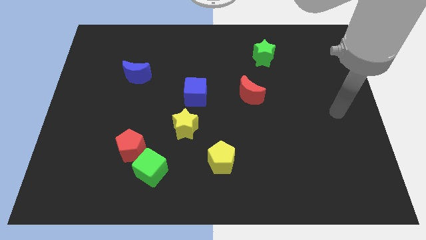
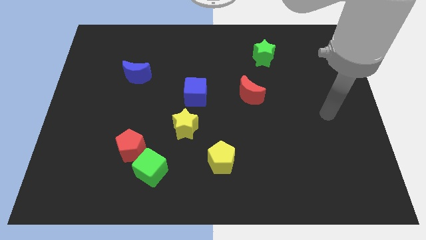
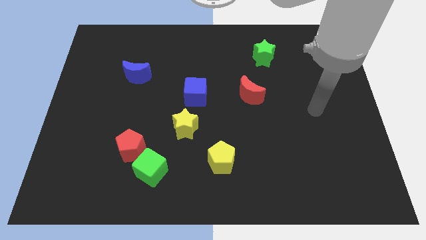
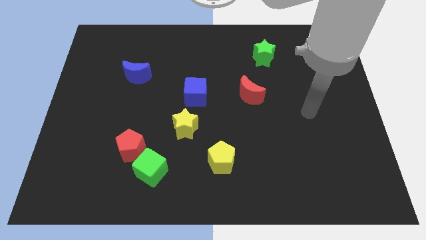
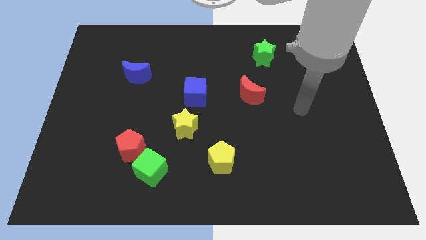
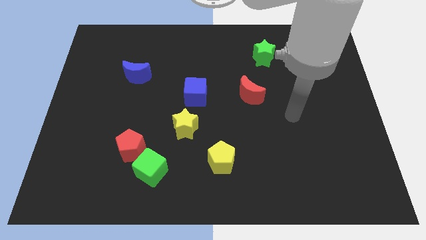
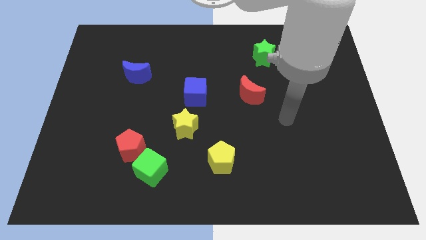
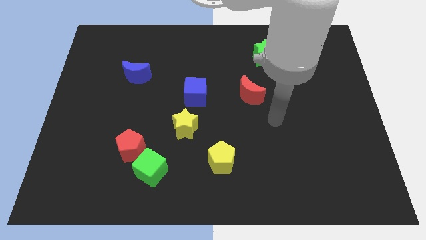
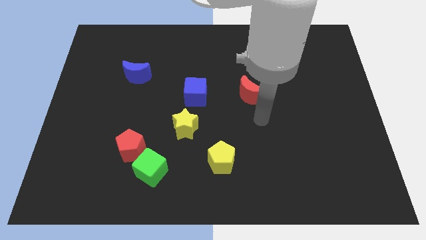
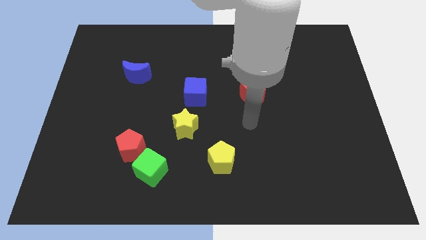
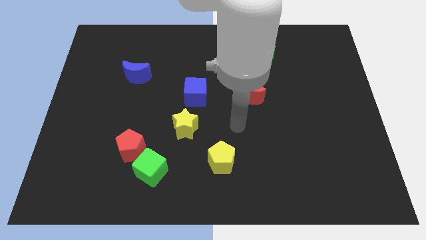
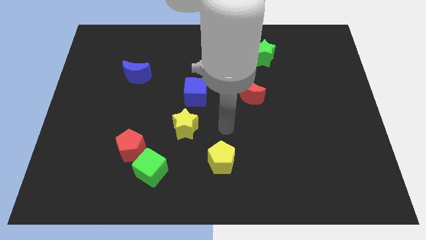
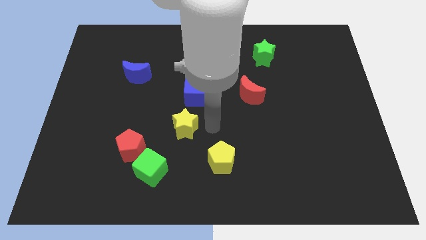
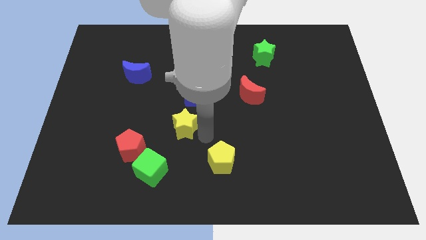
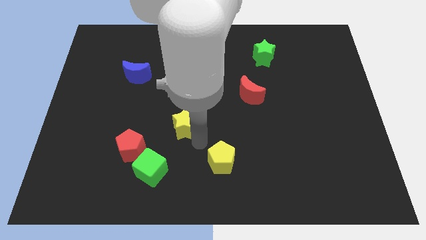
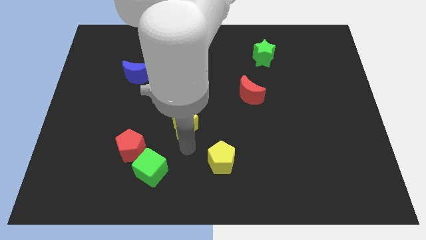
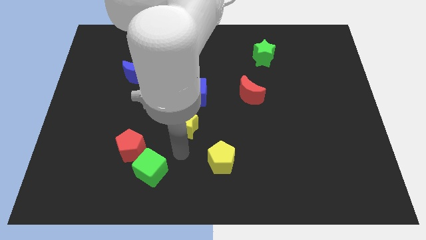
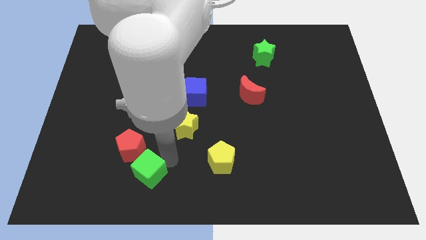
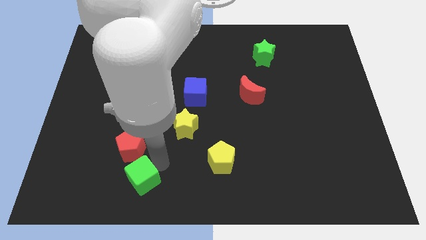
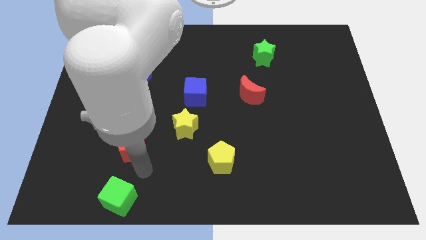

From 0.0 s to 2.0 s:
separate the red pentagon from the green cube

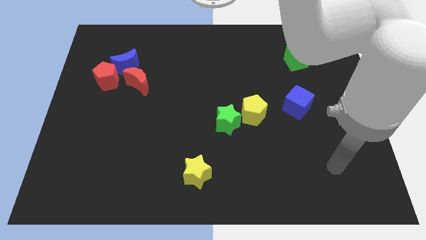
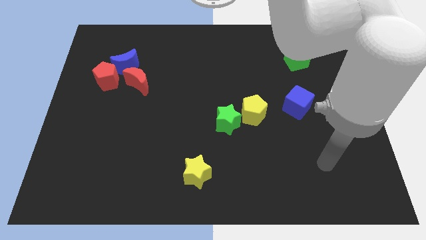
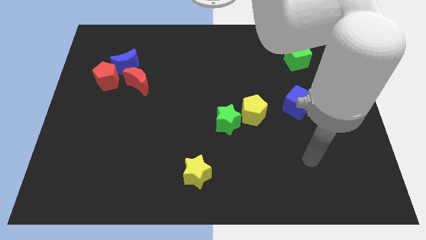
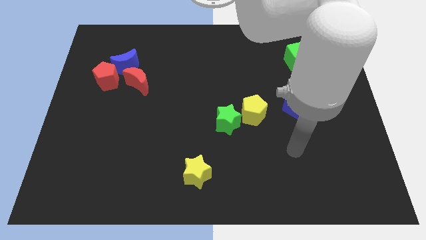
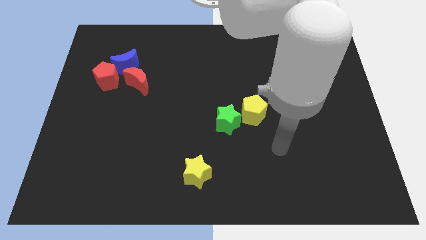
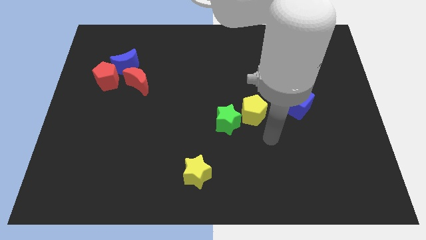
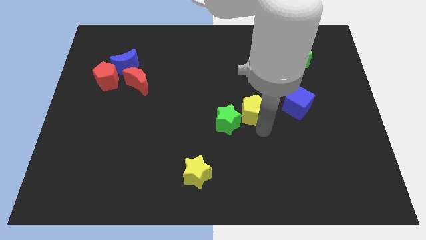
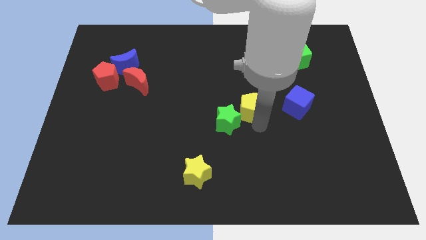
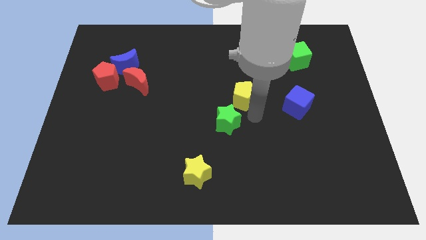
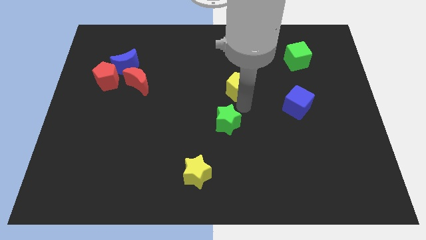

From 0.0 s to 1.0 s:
move the green star away from the yellow pentagon

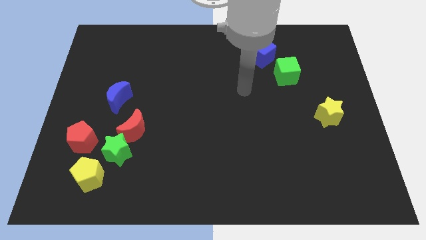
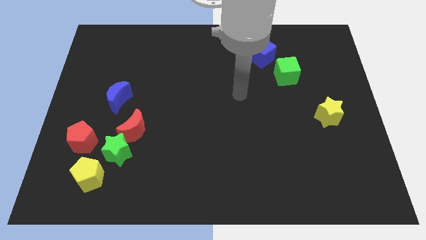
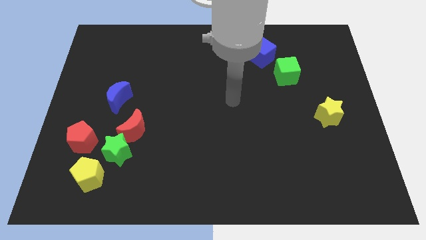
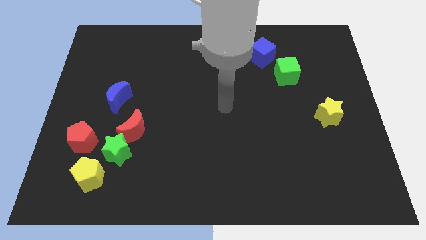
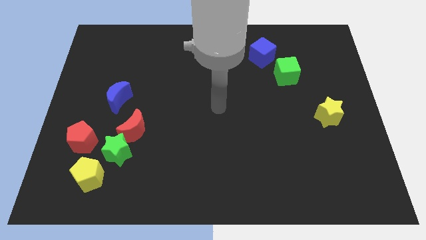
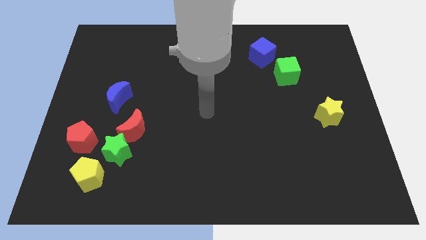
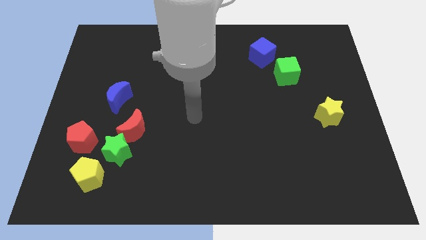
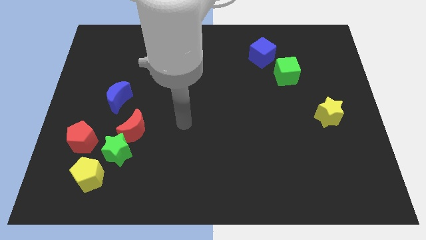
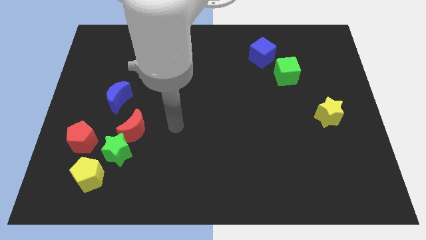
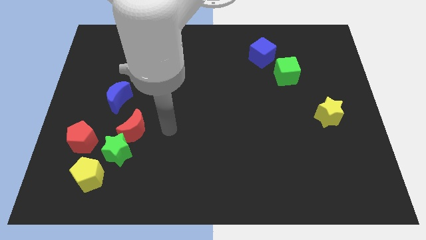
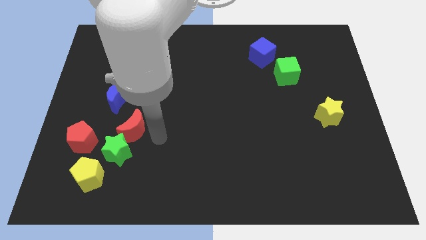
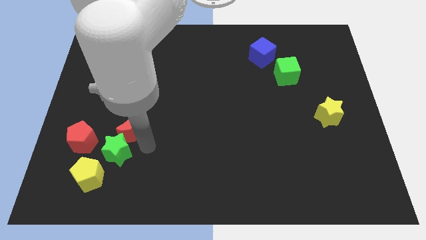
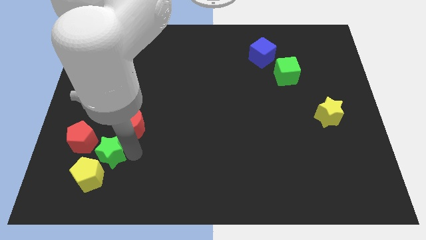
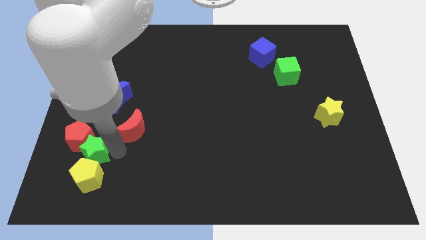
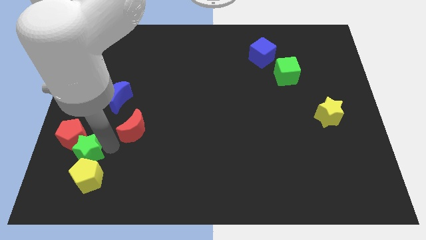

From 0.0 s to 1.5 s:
move the red moon away from the green star

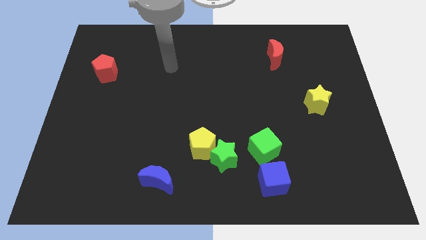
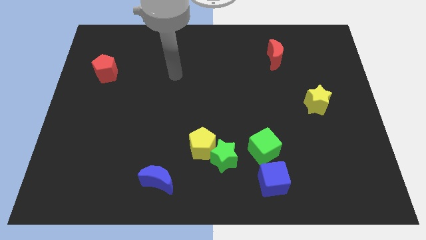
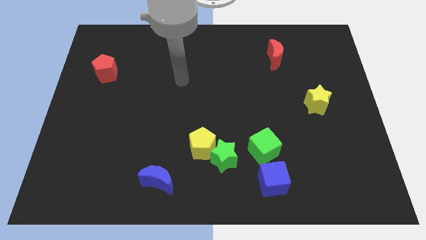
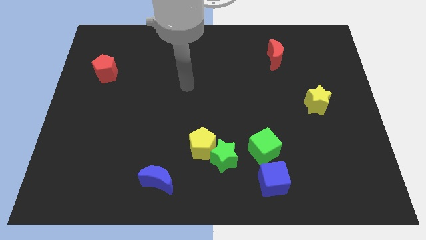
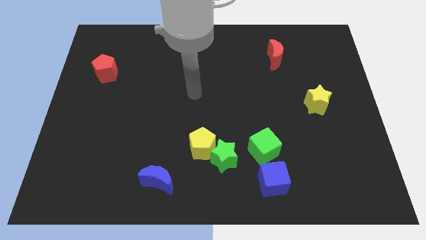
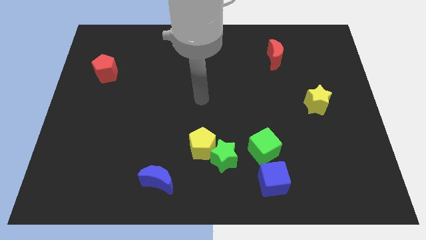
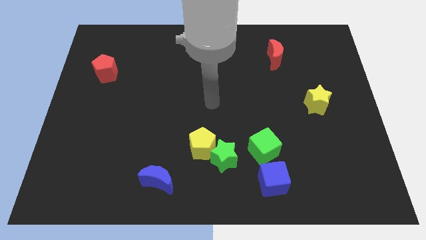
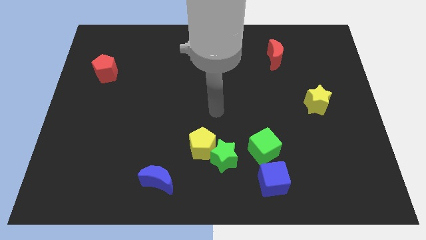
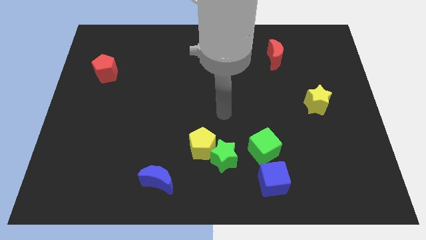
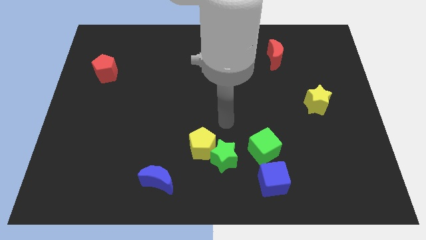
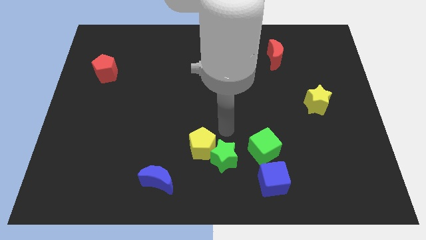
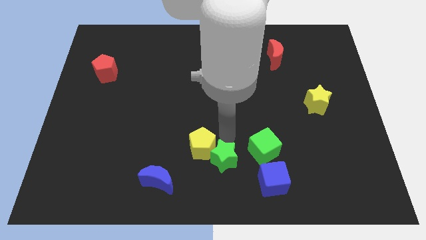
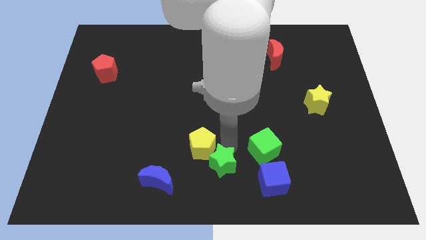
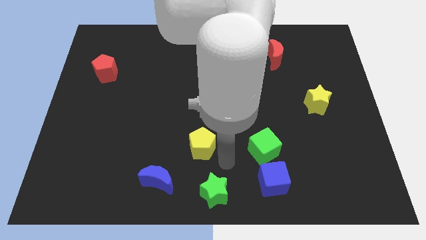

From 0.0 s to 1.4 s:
separate the yellow pentagon from the green star

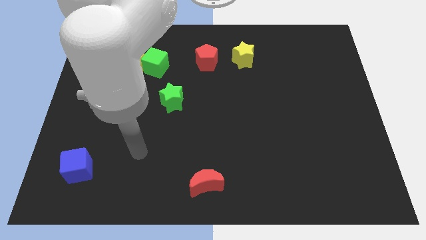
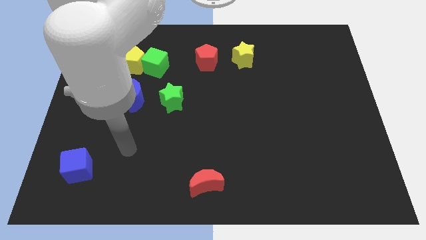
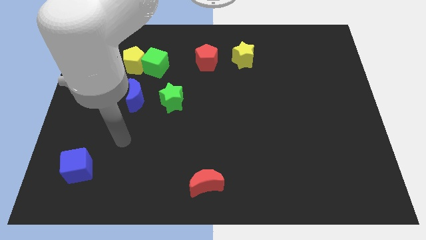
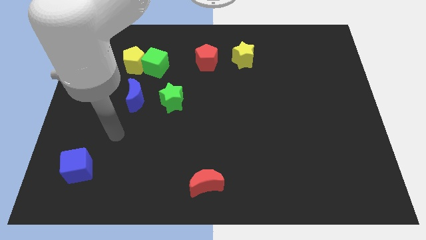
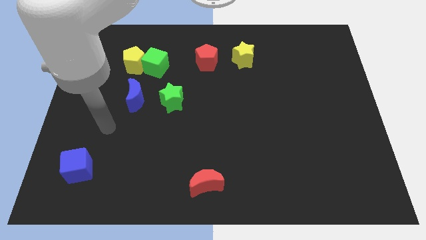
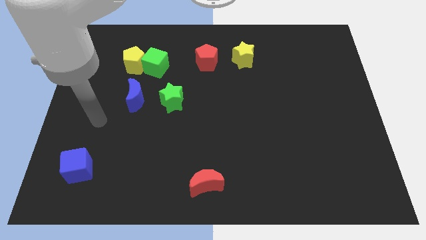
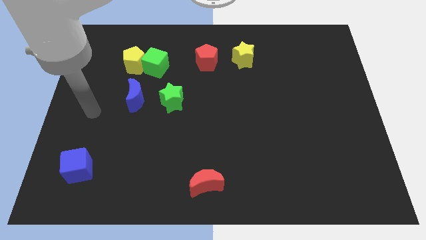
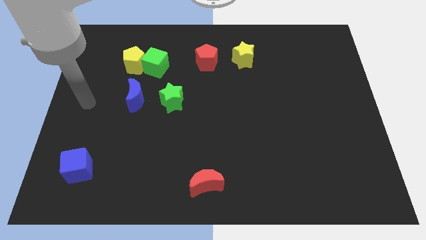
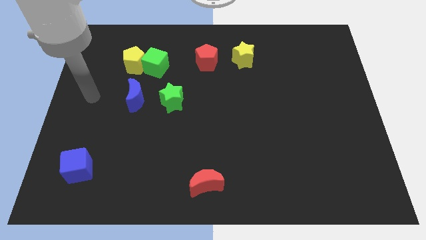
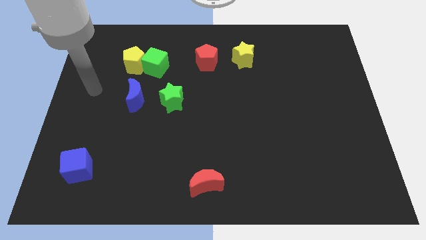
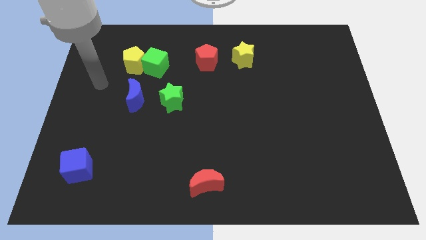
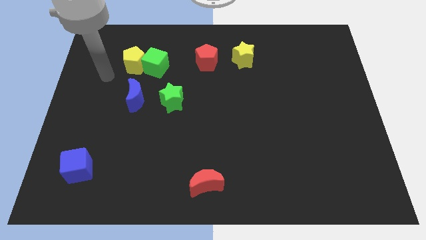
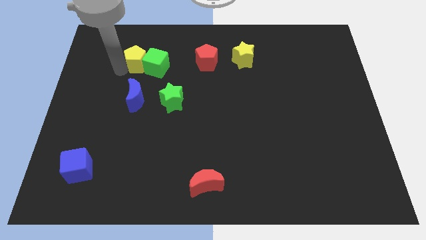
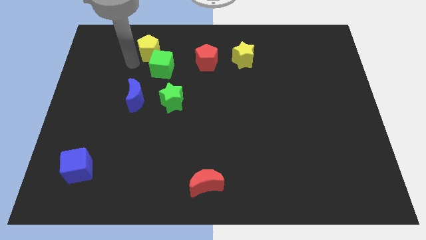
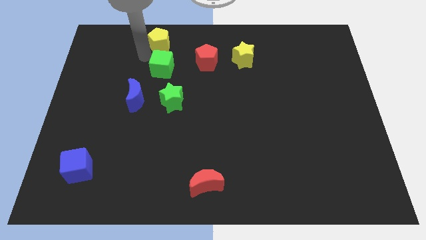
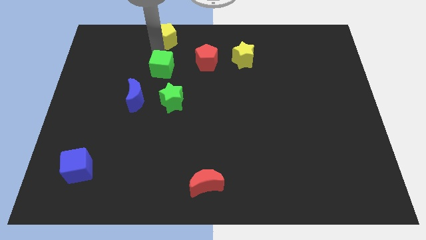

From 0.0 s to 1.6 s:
separate the green cube from the yellow pentagon

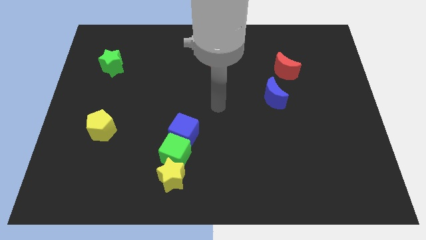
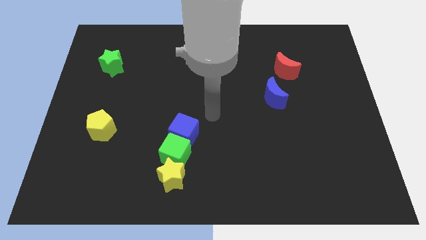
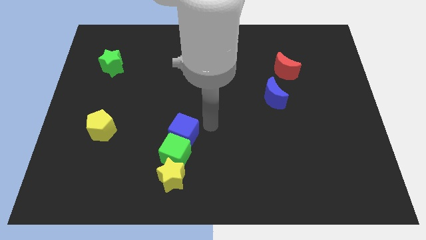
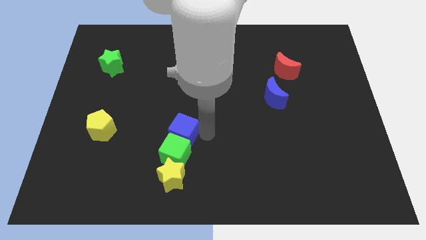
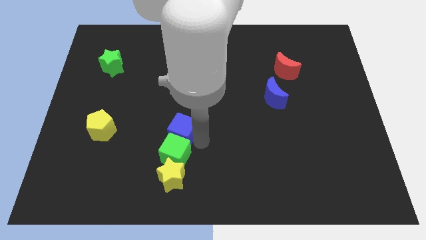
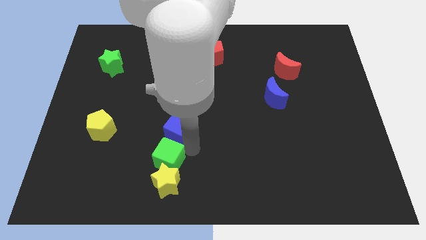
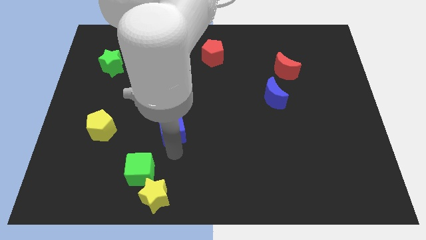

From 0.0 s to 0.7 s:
separate the blue cube from the green cube

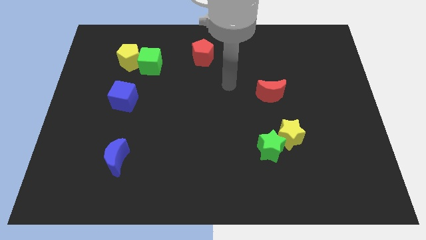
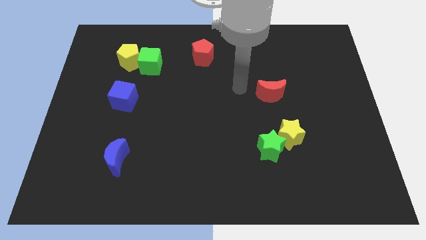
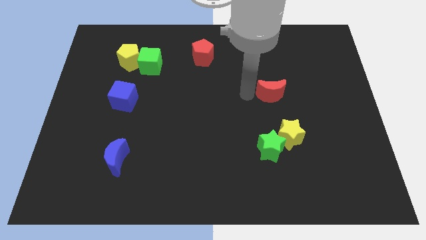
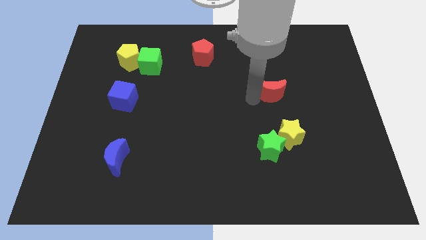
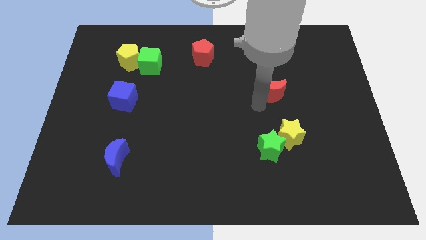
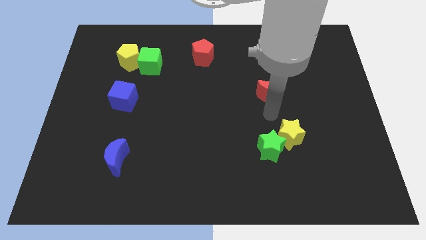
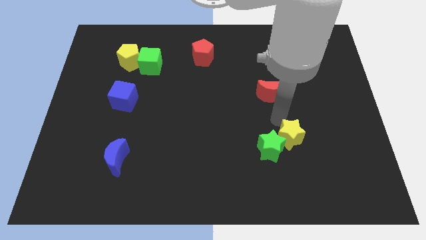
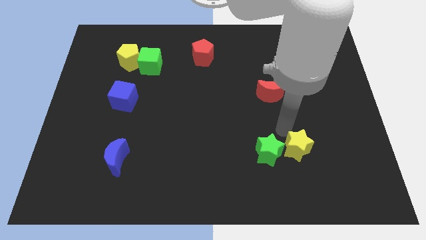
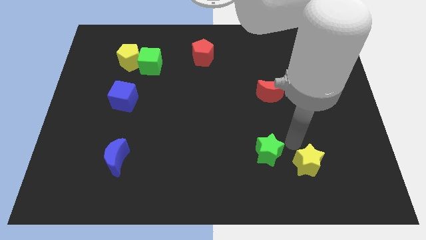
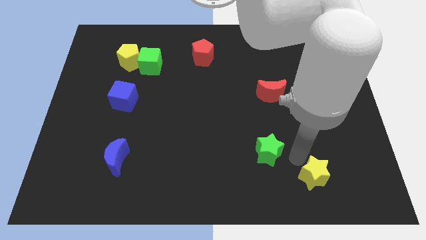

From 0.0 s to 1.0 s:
pull the green star apart from the yellow star
